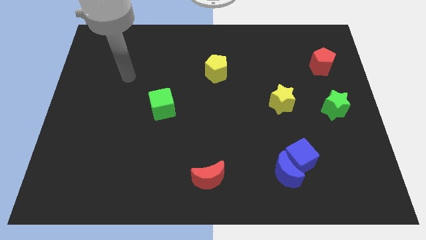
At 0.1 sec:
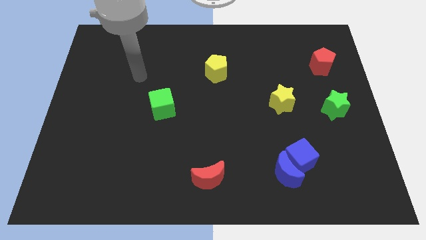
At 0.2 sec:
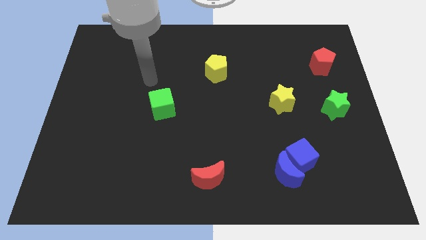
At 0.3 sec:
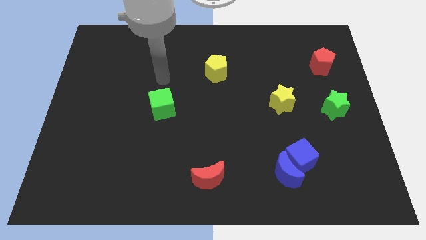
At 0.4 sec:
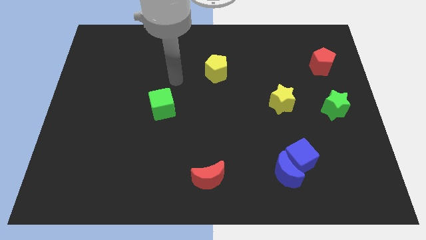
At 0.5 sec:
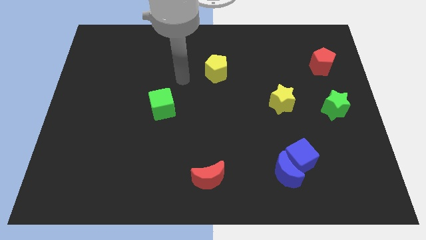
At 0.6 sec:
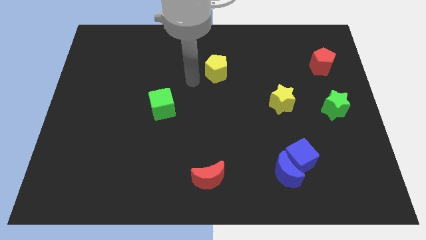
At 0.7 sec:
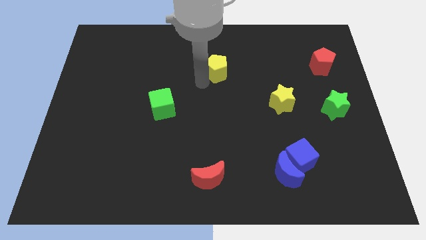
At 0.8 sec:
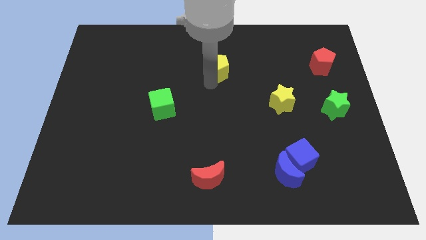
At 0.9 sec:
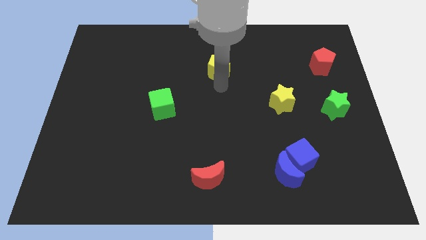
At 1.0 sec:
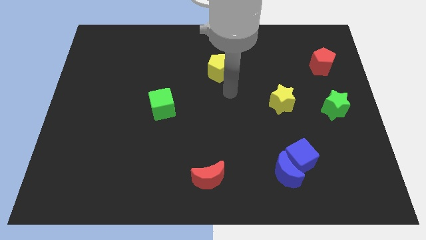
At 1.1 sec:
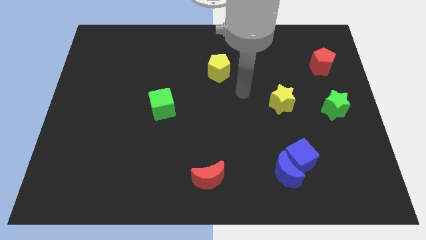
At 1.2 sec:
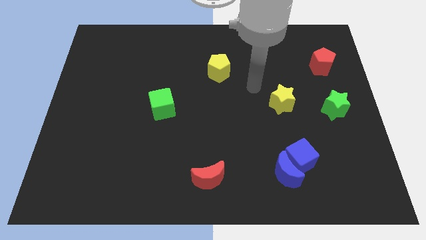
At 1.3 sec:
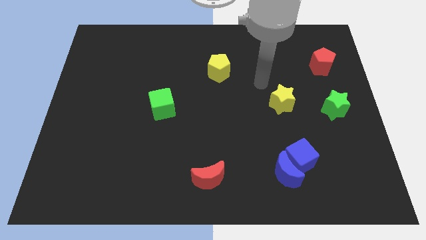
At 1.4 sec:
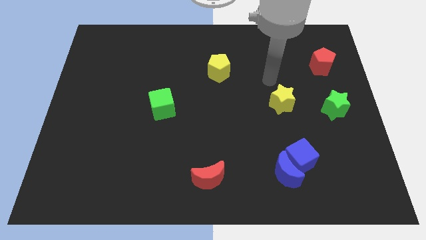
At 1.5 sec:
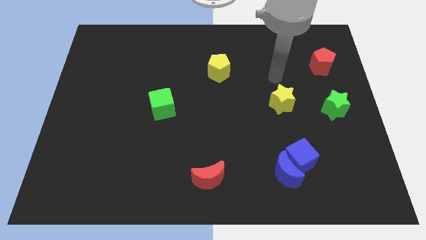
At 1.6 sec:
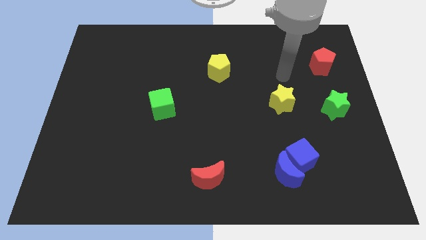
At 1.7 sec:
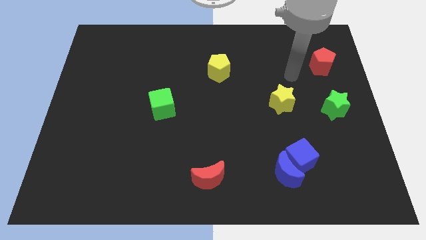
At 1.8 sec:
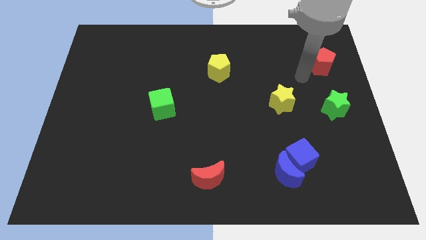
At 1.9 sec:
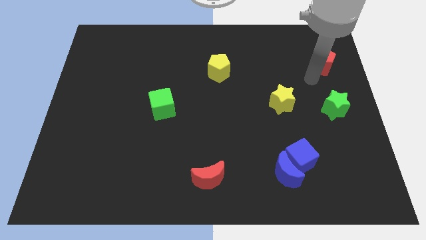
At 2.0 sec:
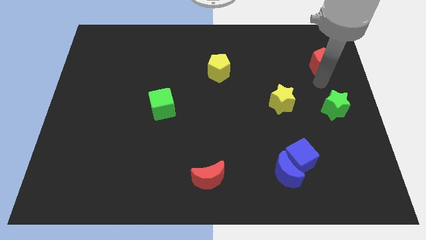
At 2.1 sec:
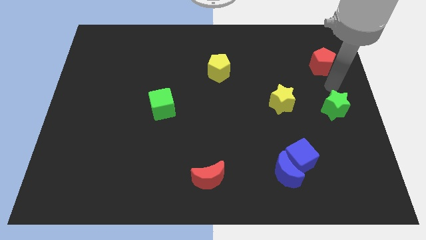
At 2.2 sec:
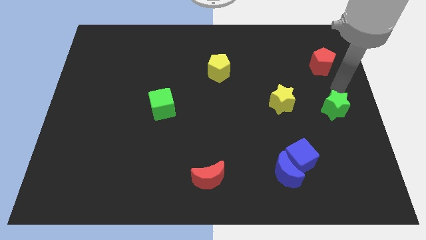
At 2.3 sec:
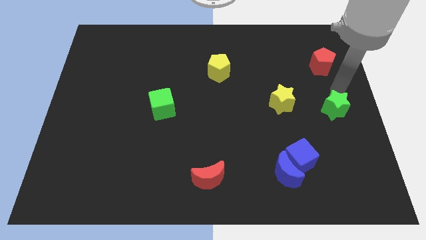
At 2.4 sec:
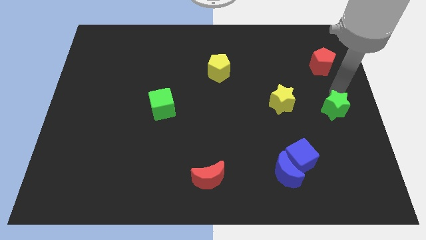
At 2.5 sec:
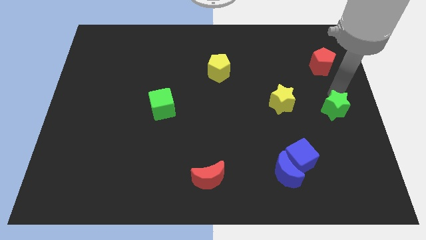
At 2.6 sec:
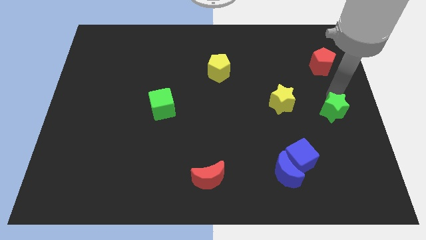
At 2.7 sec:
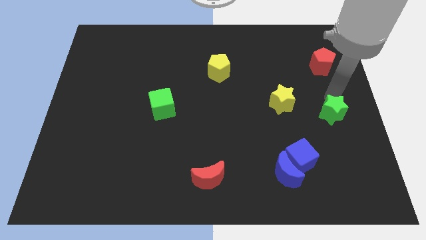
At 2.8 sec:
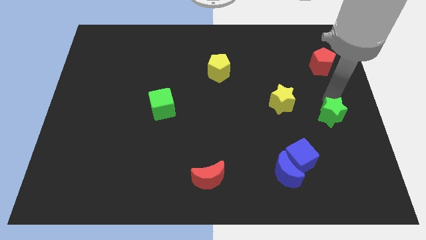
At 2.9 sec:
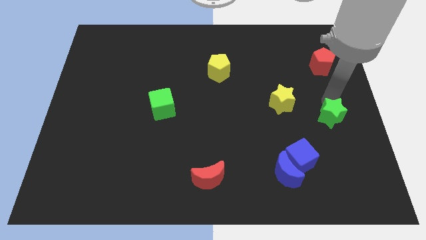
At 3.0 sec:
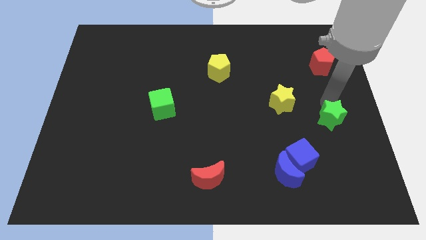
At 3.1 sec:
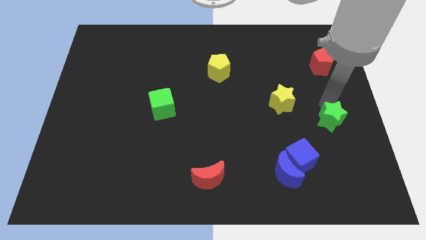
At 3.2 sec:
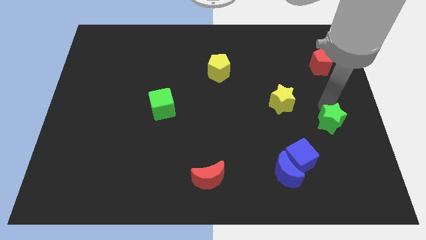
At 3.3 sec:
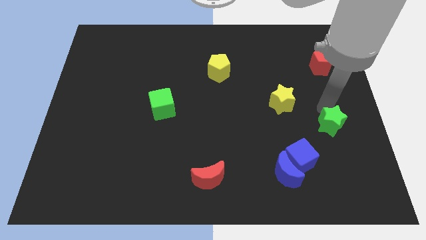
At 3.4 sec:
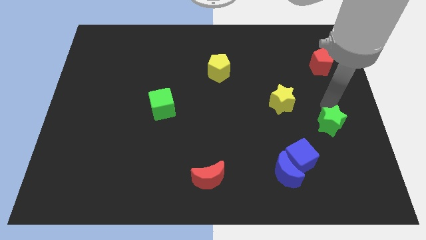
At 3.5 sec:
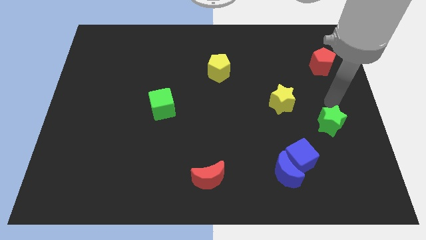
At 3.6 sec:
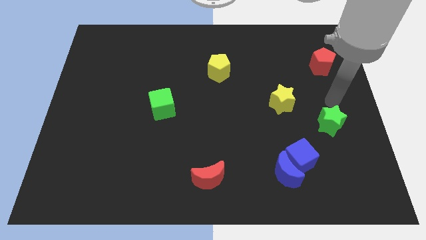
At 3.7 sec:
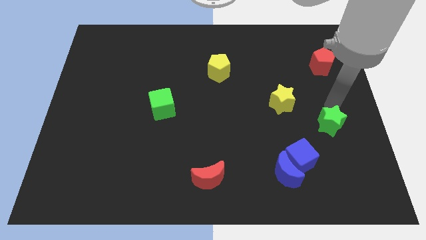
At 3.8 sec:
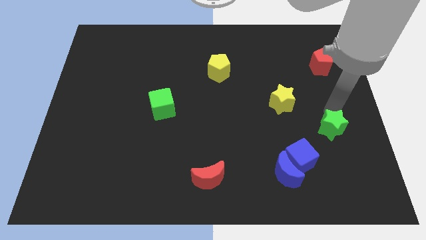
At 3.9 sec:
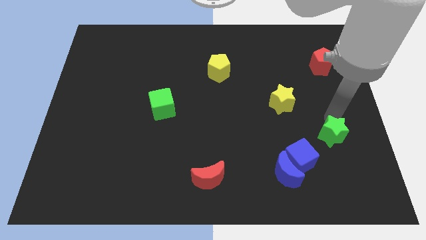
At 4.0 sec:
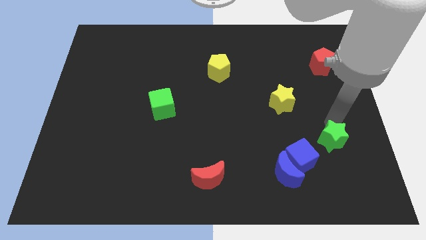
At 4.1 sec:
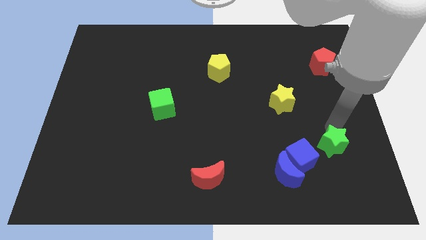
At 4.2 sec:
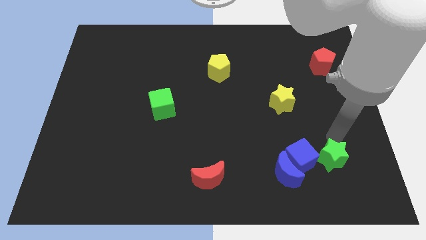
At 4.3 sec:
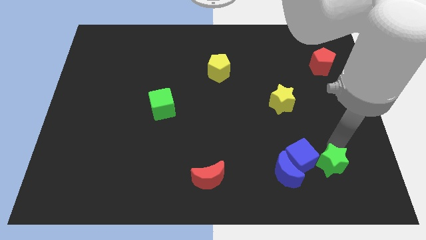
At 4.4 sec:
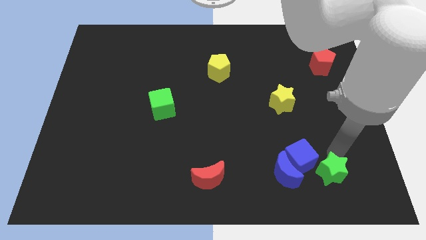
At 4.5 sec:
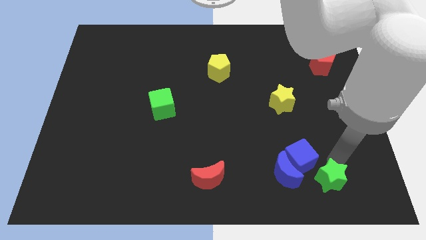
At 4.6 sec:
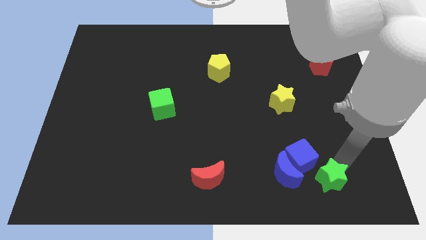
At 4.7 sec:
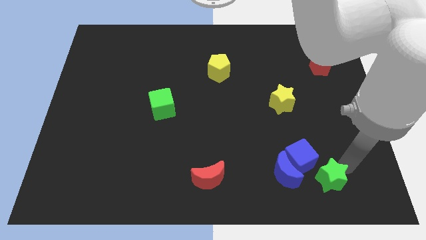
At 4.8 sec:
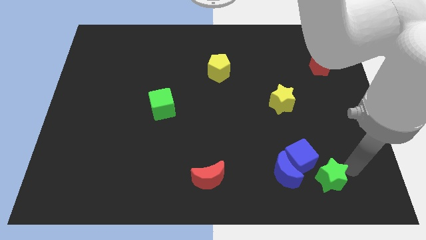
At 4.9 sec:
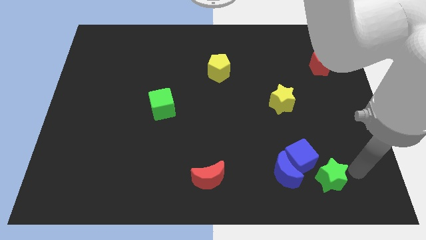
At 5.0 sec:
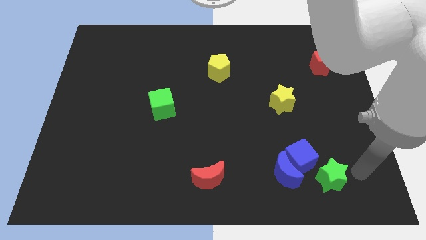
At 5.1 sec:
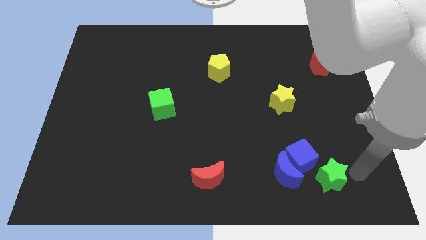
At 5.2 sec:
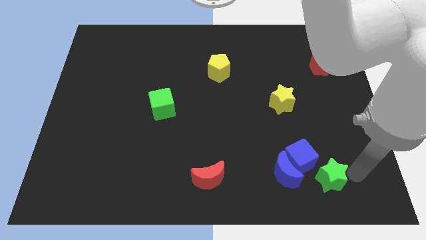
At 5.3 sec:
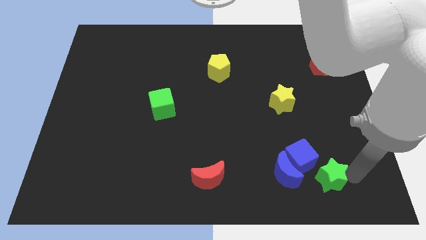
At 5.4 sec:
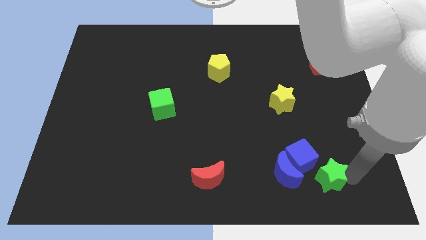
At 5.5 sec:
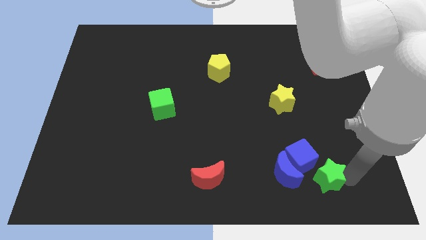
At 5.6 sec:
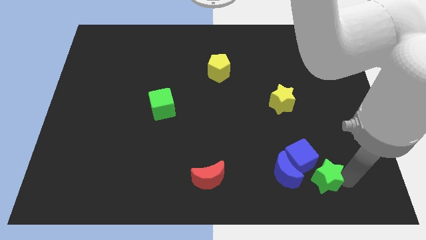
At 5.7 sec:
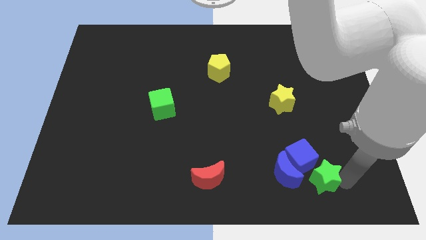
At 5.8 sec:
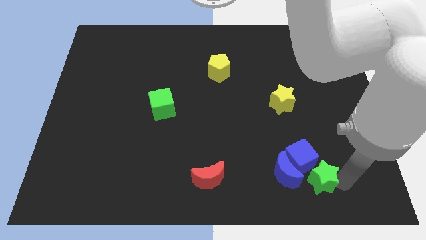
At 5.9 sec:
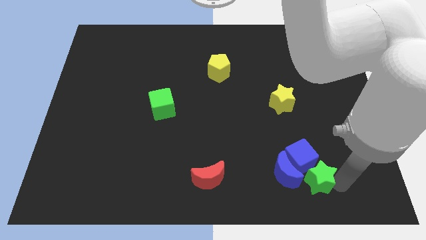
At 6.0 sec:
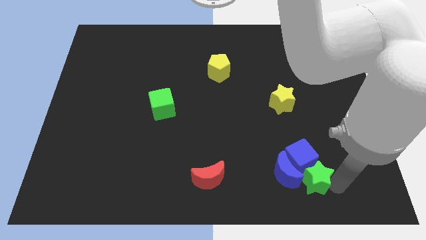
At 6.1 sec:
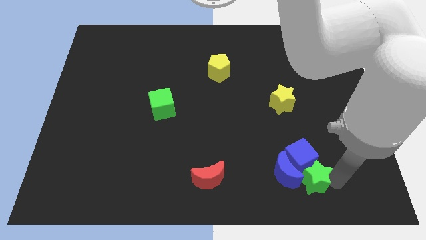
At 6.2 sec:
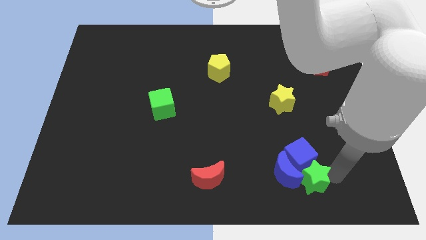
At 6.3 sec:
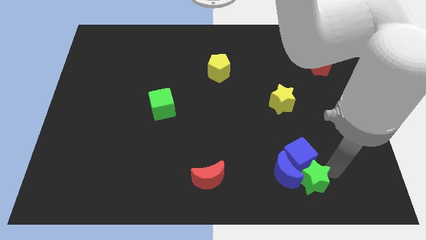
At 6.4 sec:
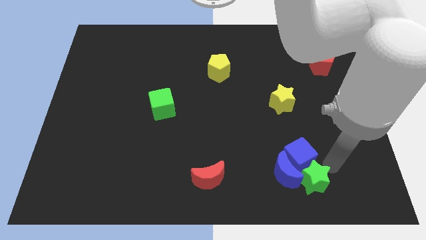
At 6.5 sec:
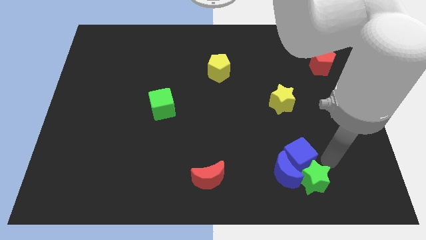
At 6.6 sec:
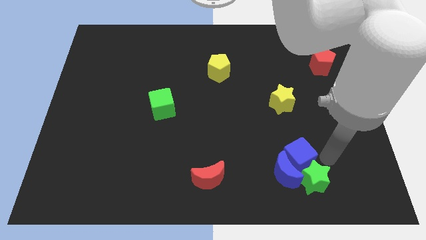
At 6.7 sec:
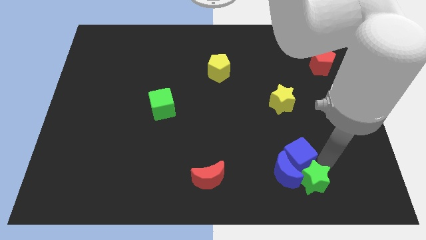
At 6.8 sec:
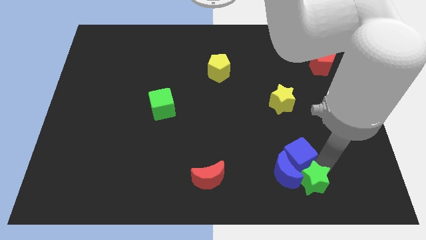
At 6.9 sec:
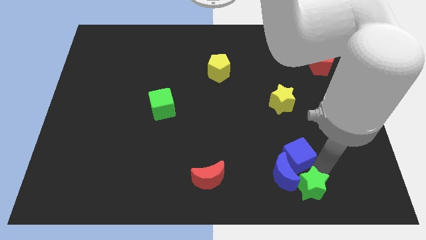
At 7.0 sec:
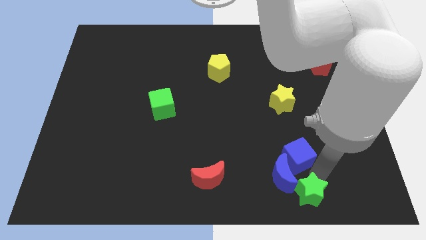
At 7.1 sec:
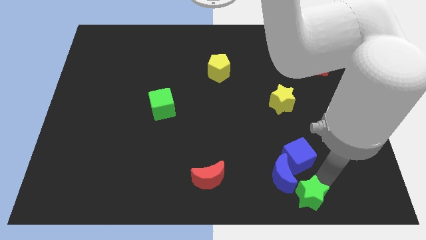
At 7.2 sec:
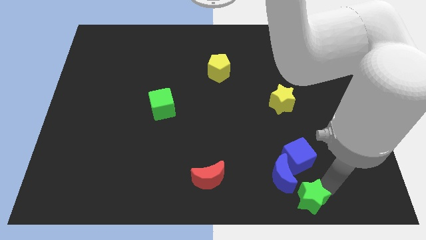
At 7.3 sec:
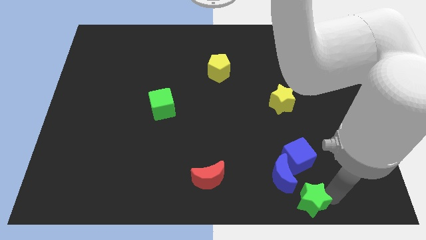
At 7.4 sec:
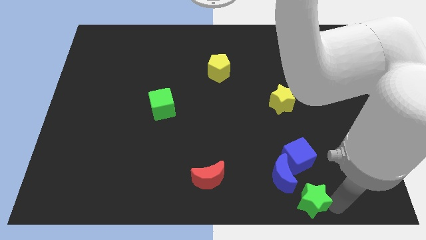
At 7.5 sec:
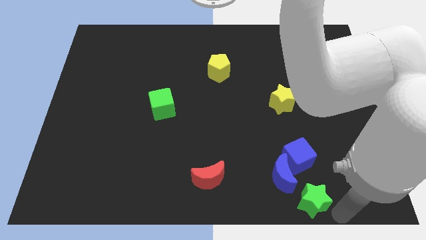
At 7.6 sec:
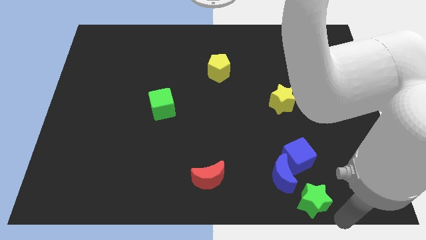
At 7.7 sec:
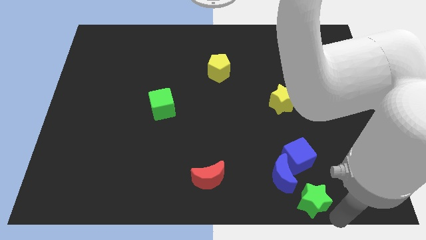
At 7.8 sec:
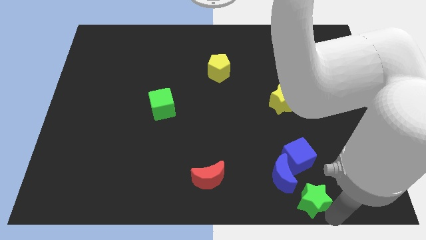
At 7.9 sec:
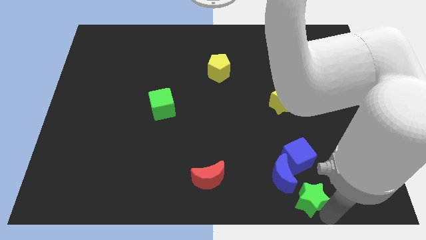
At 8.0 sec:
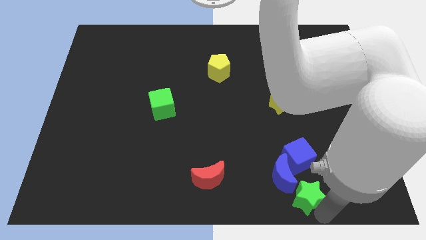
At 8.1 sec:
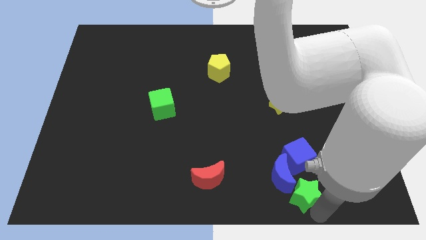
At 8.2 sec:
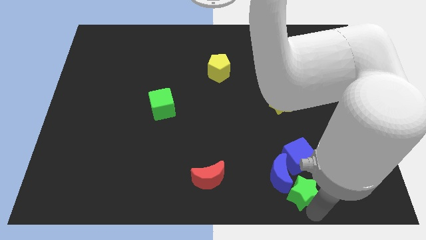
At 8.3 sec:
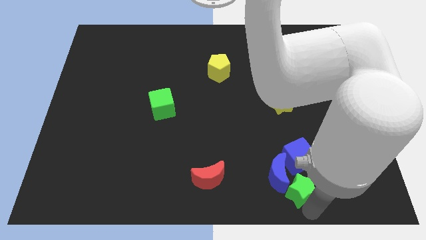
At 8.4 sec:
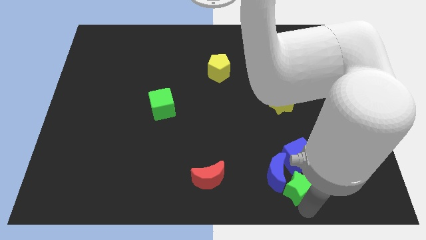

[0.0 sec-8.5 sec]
put the green star diagonally down and to the left of the blue cube
